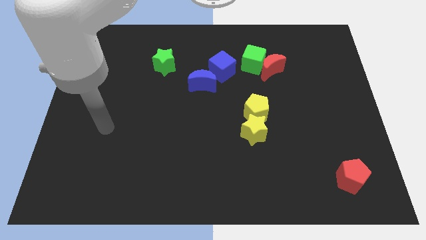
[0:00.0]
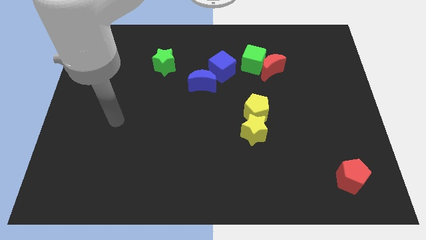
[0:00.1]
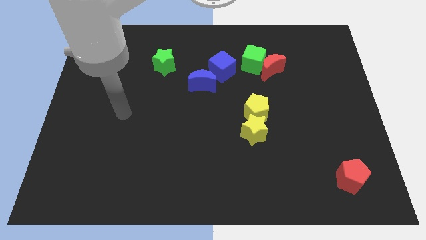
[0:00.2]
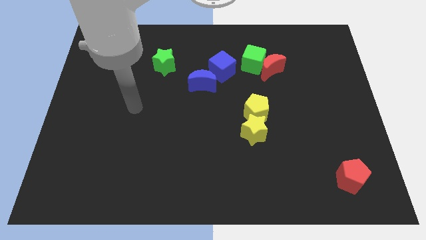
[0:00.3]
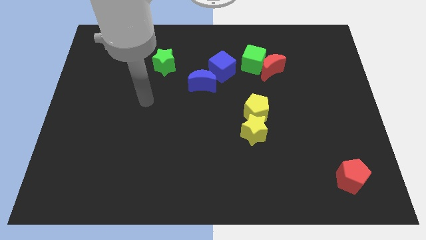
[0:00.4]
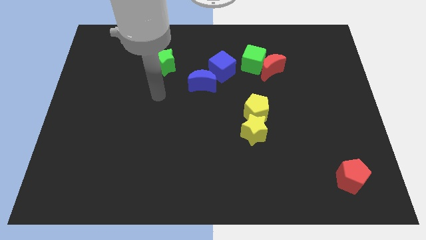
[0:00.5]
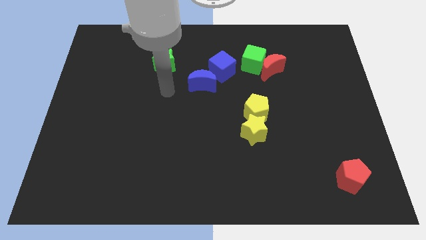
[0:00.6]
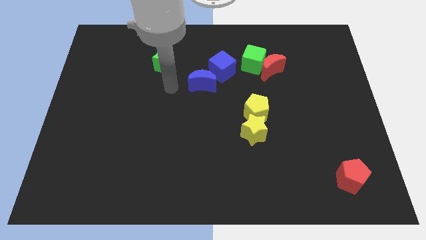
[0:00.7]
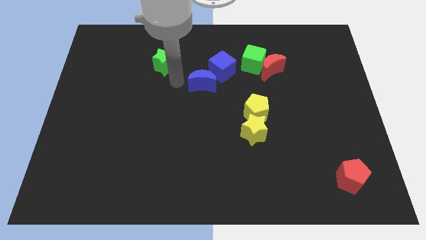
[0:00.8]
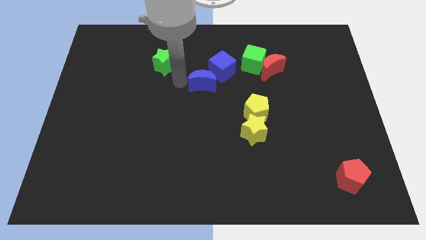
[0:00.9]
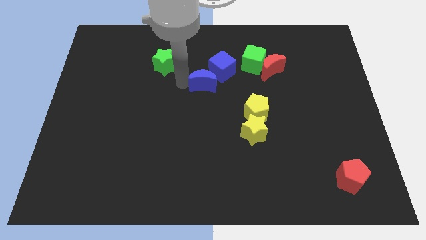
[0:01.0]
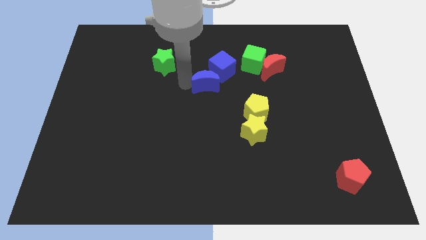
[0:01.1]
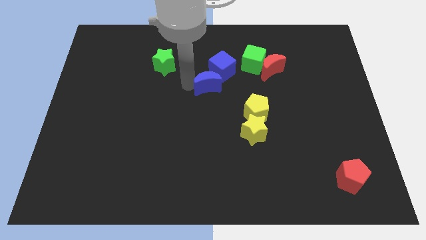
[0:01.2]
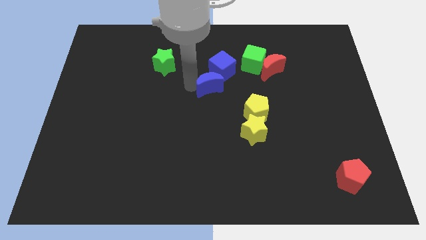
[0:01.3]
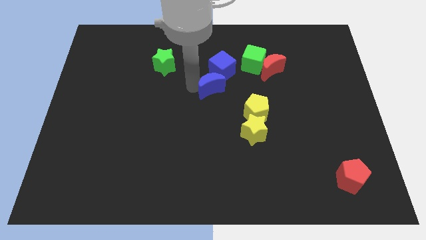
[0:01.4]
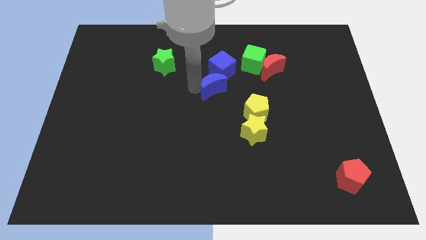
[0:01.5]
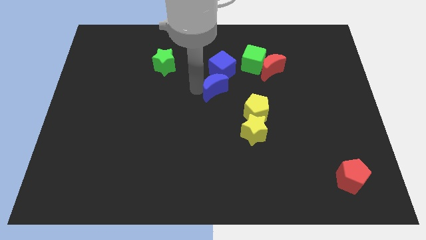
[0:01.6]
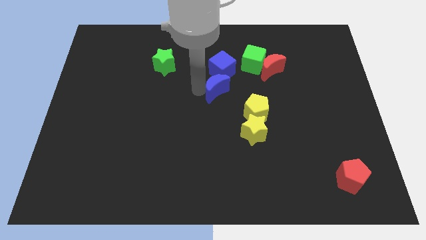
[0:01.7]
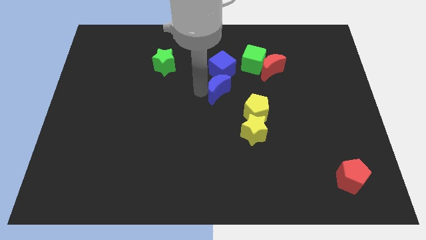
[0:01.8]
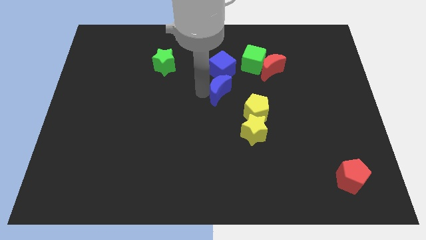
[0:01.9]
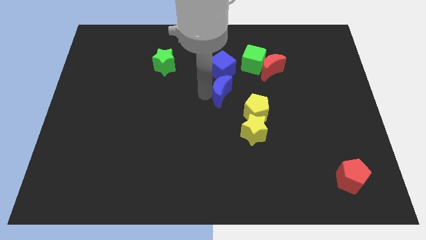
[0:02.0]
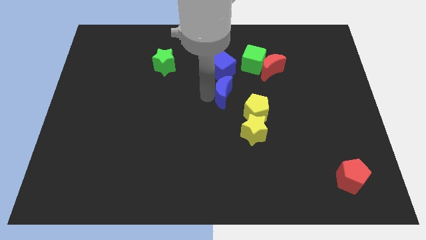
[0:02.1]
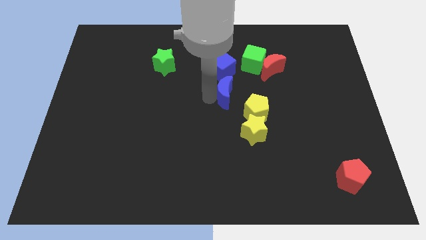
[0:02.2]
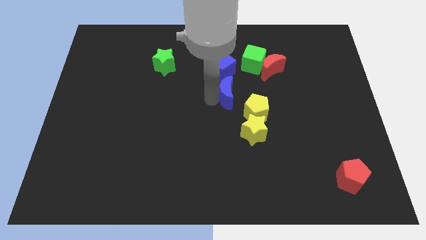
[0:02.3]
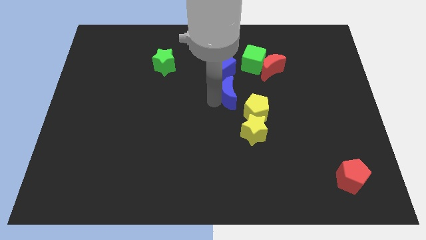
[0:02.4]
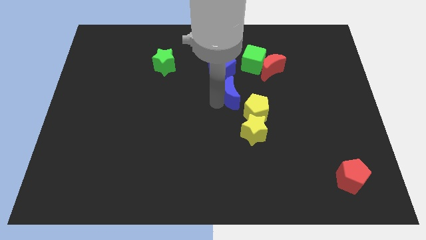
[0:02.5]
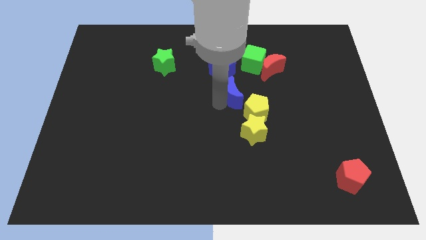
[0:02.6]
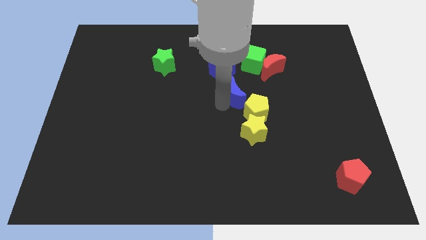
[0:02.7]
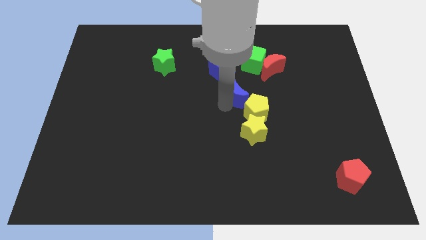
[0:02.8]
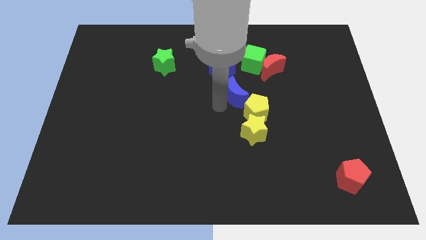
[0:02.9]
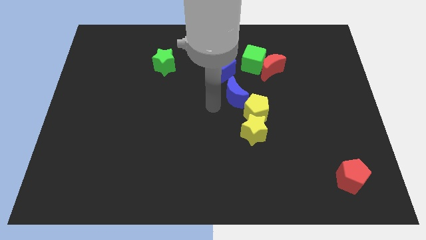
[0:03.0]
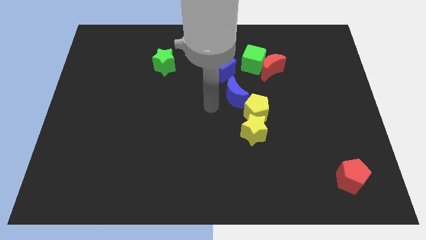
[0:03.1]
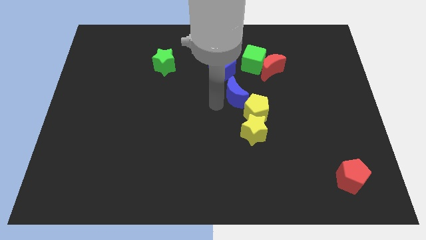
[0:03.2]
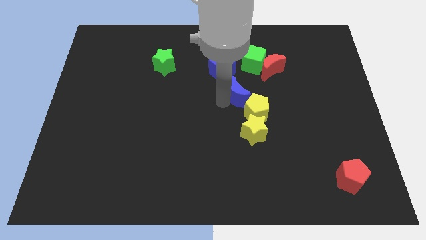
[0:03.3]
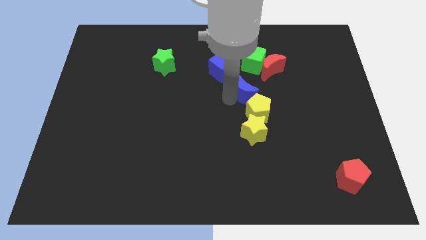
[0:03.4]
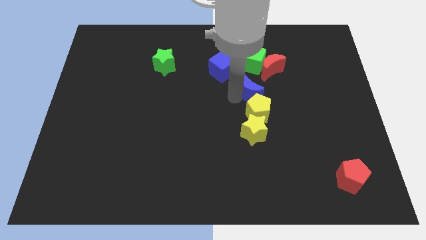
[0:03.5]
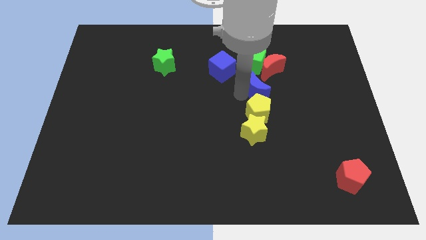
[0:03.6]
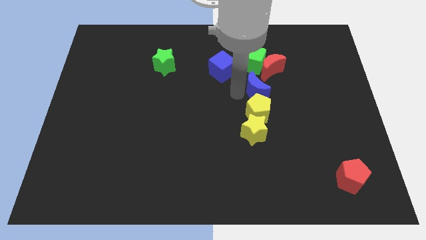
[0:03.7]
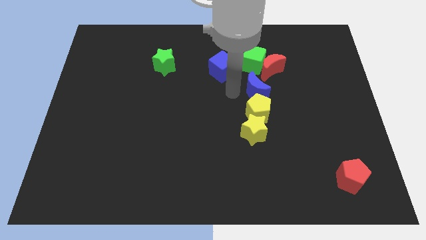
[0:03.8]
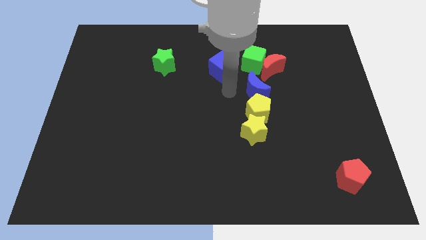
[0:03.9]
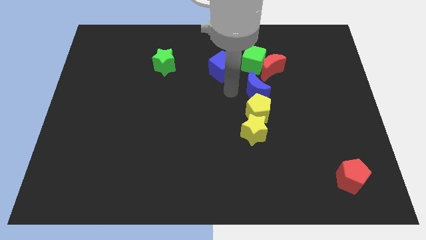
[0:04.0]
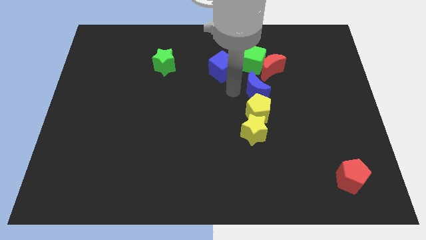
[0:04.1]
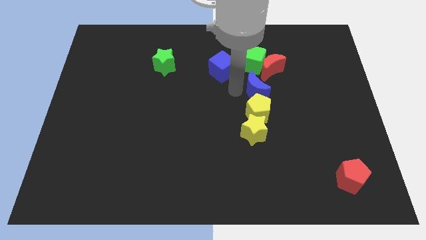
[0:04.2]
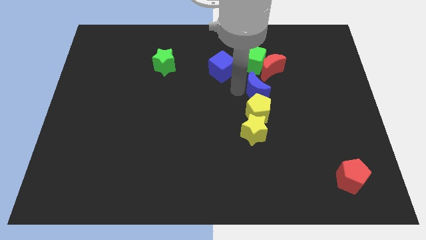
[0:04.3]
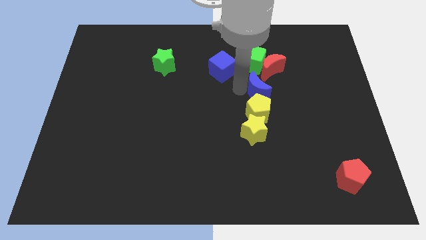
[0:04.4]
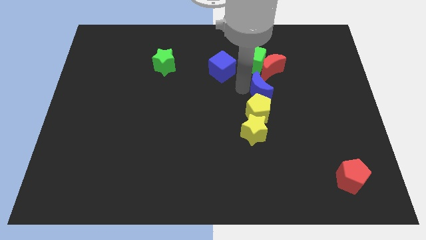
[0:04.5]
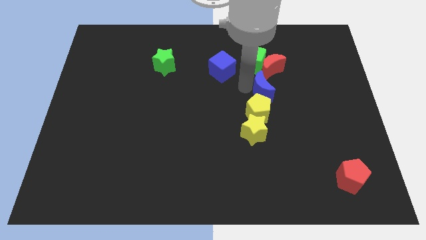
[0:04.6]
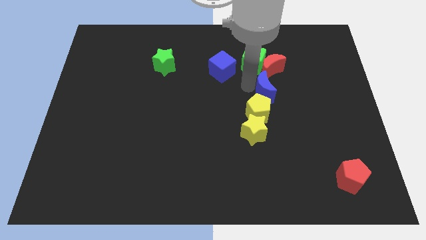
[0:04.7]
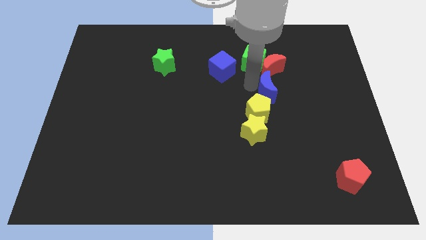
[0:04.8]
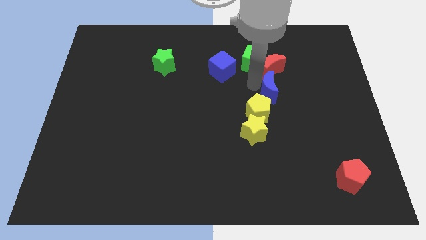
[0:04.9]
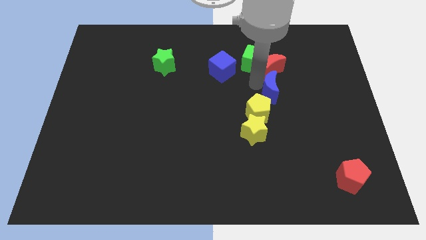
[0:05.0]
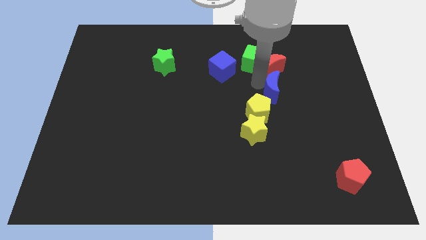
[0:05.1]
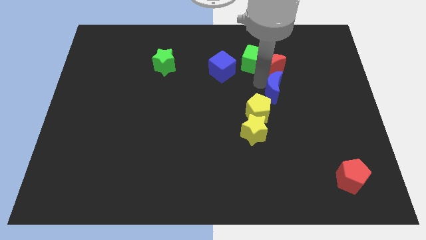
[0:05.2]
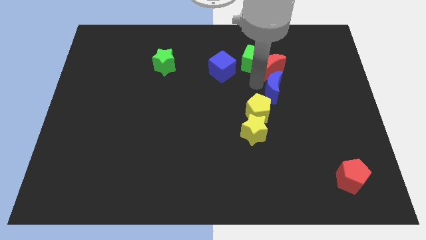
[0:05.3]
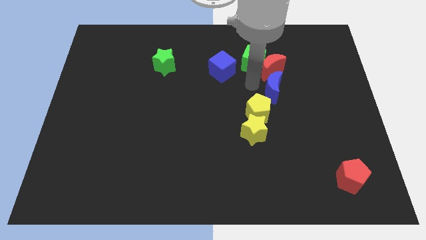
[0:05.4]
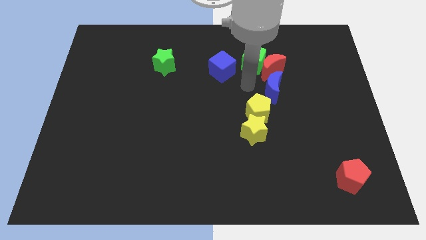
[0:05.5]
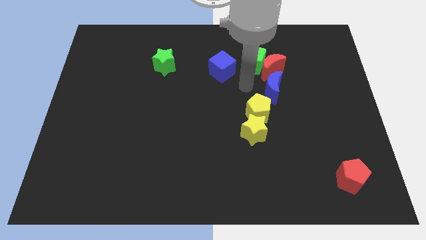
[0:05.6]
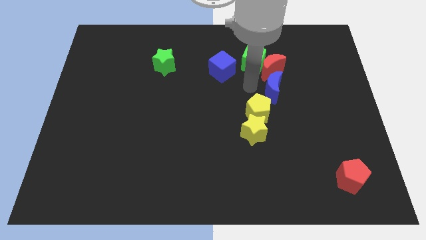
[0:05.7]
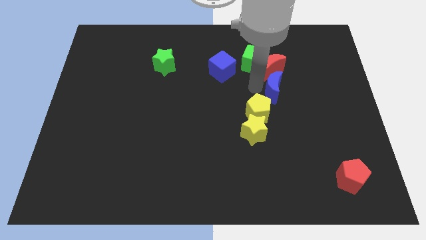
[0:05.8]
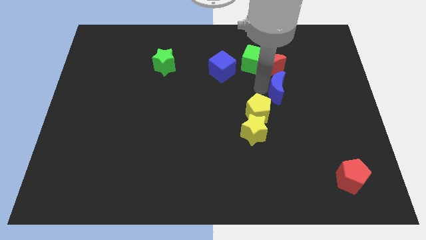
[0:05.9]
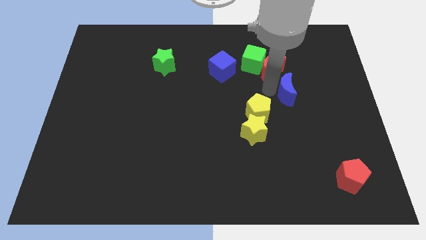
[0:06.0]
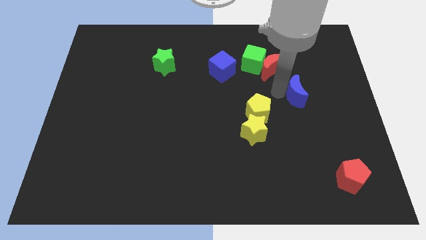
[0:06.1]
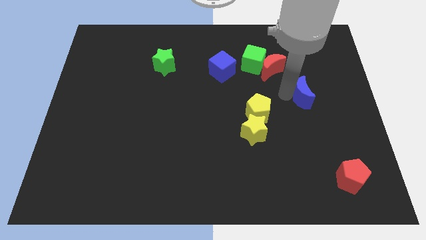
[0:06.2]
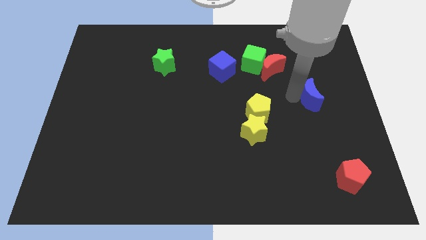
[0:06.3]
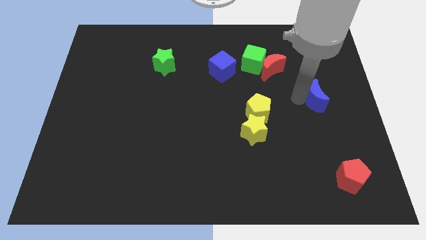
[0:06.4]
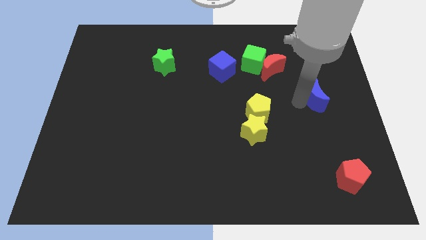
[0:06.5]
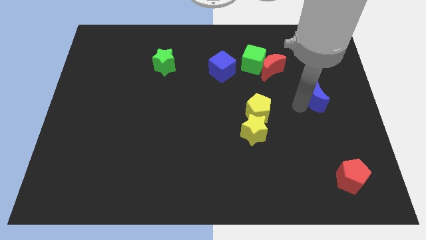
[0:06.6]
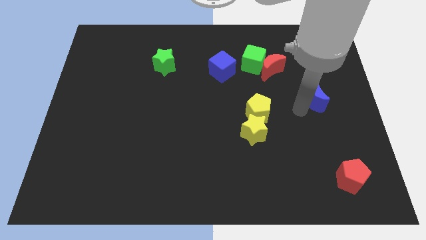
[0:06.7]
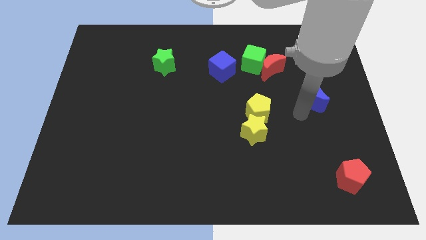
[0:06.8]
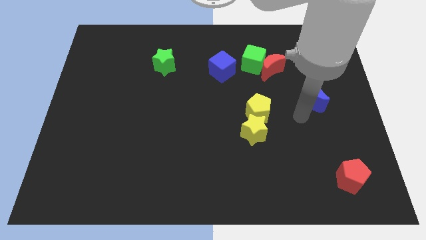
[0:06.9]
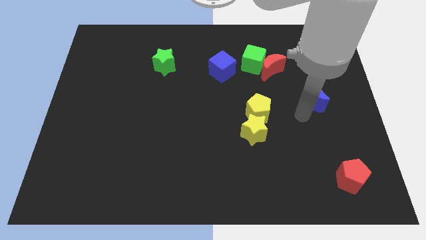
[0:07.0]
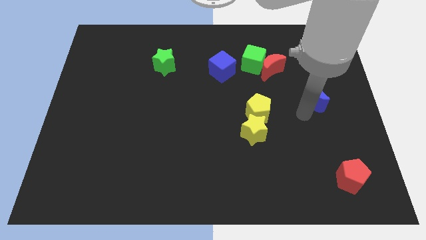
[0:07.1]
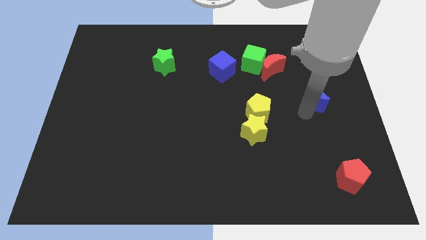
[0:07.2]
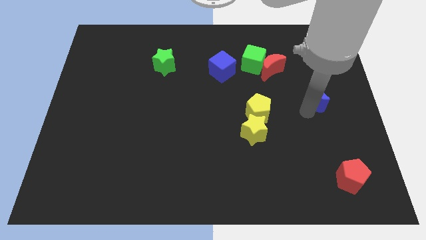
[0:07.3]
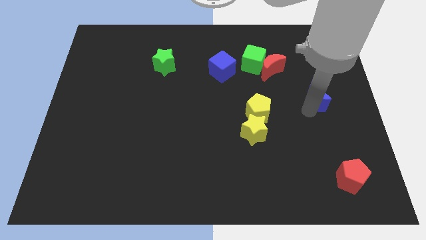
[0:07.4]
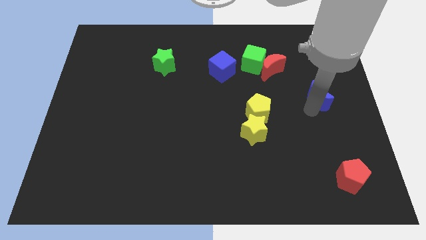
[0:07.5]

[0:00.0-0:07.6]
push the blue moon to the right side
